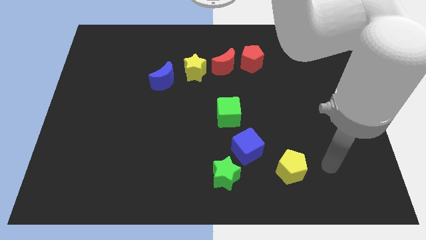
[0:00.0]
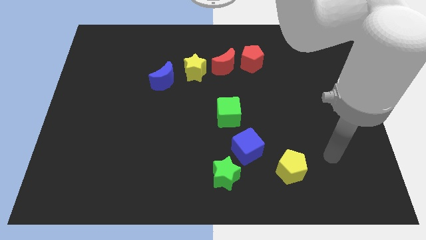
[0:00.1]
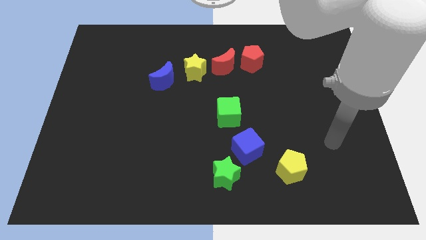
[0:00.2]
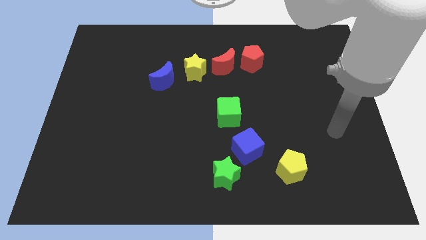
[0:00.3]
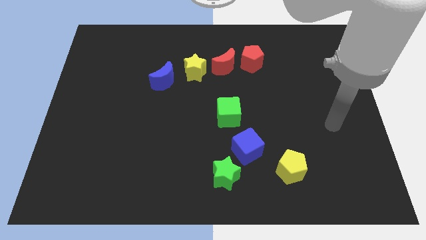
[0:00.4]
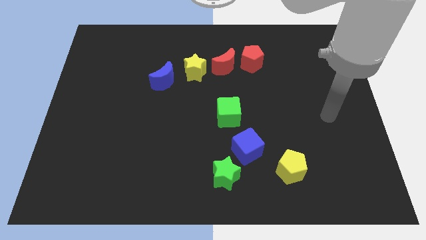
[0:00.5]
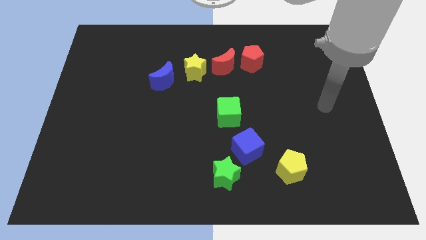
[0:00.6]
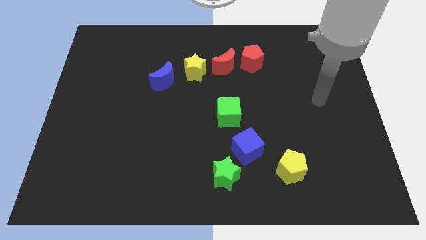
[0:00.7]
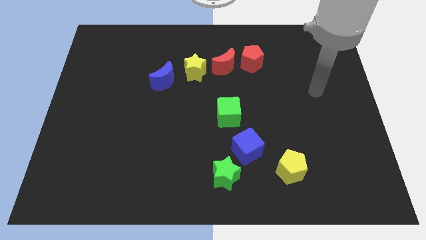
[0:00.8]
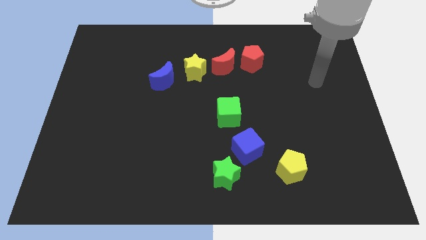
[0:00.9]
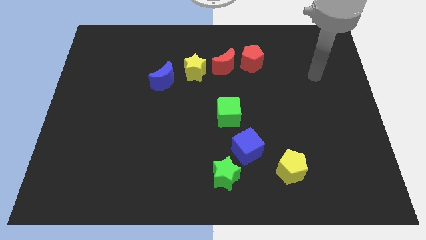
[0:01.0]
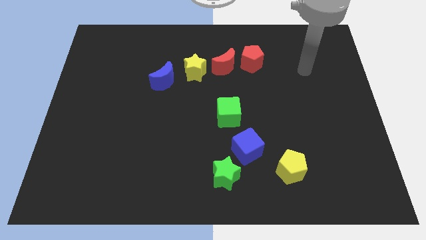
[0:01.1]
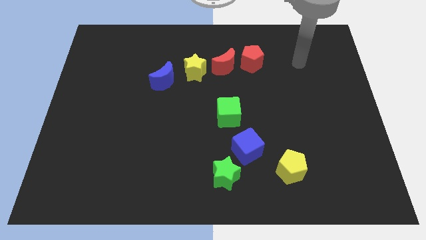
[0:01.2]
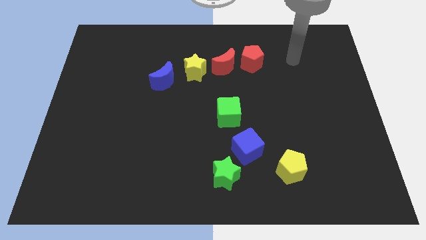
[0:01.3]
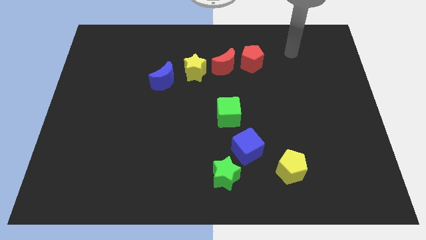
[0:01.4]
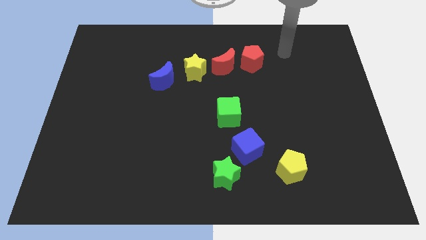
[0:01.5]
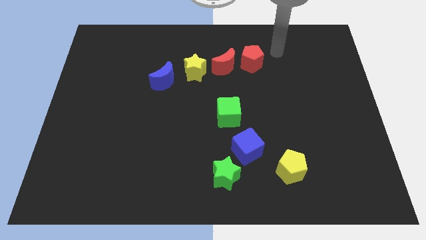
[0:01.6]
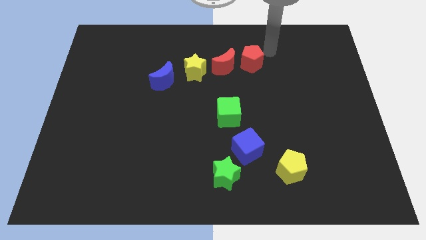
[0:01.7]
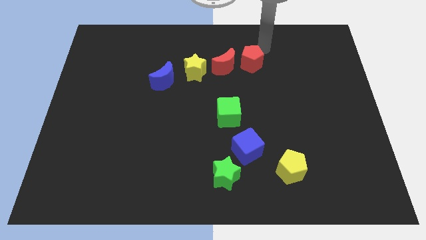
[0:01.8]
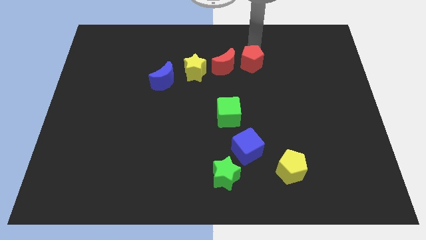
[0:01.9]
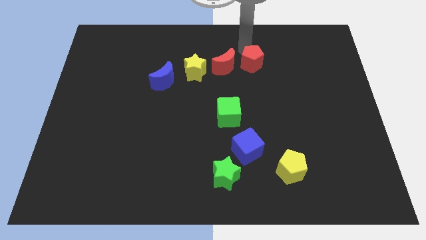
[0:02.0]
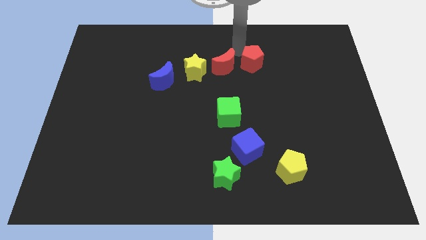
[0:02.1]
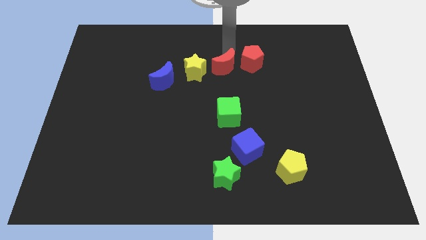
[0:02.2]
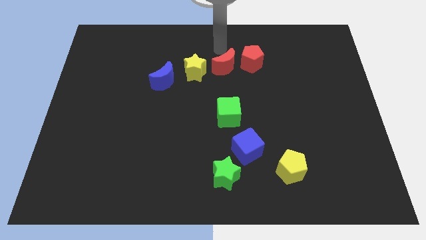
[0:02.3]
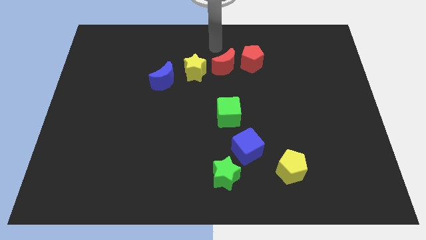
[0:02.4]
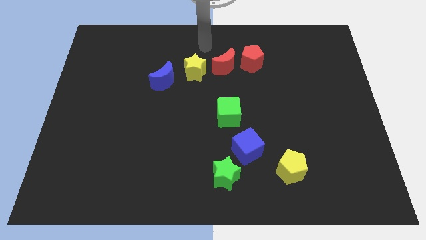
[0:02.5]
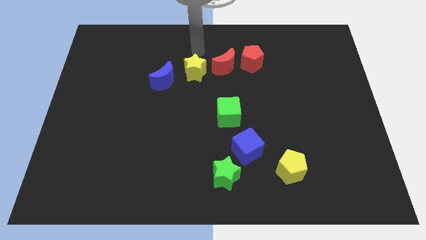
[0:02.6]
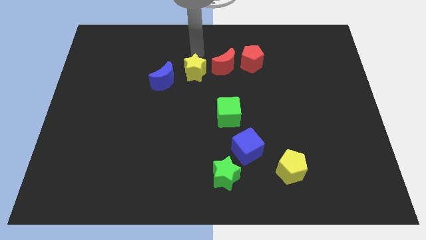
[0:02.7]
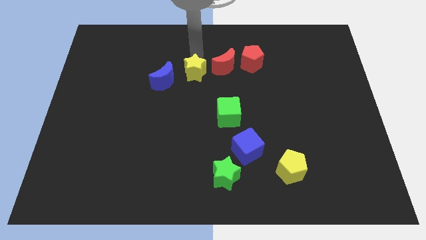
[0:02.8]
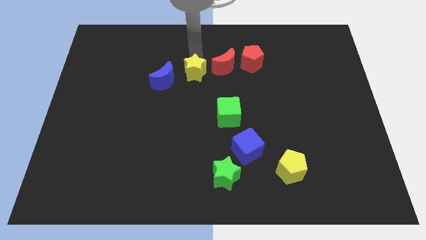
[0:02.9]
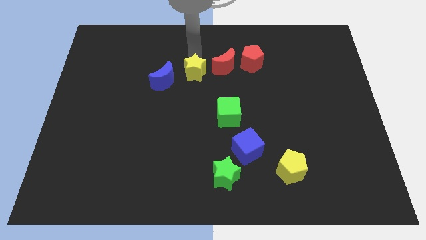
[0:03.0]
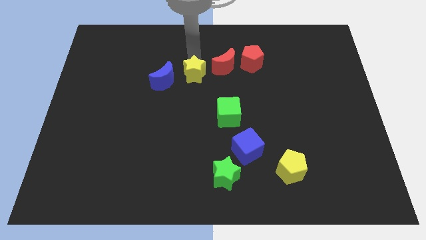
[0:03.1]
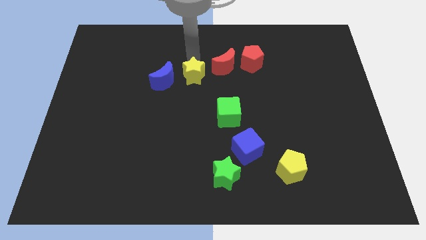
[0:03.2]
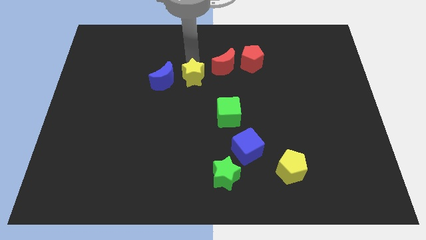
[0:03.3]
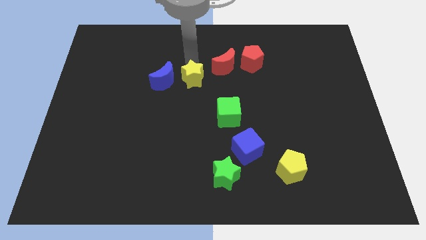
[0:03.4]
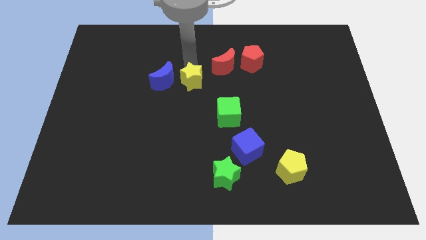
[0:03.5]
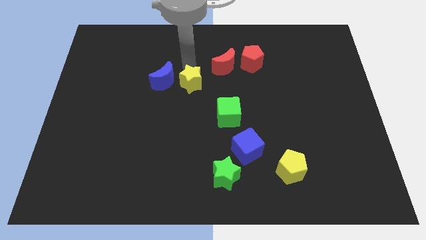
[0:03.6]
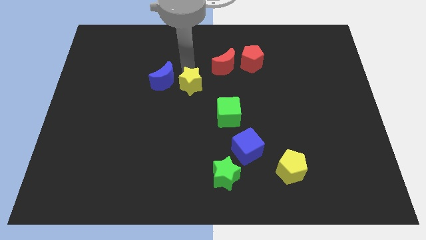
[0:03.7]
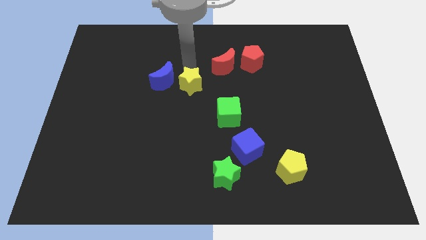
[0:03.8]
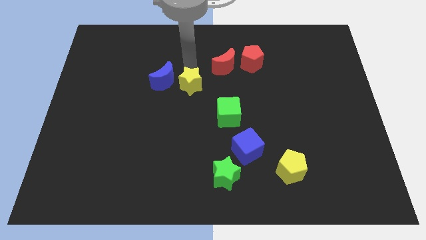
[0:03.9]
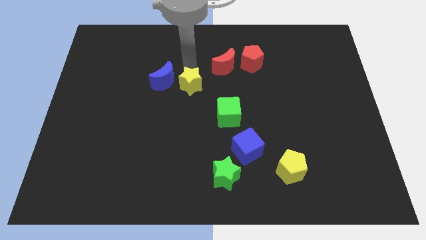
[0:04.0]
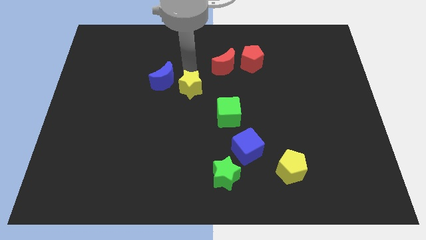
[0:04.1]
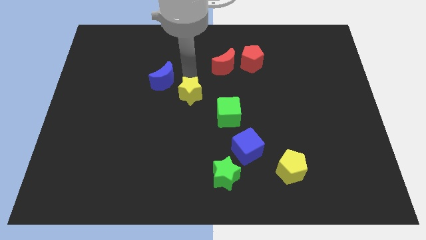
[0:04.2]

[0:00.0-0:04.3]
move the yellow star downwards a little bit

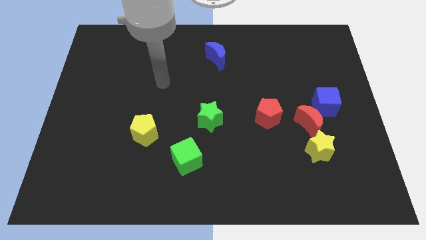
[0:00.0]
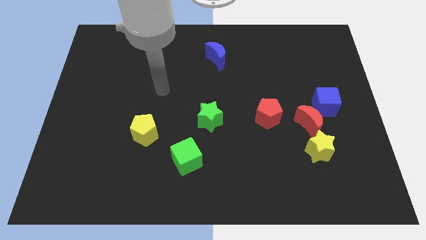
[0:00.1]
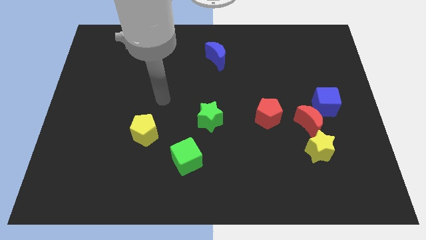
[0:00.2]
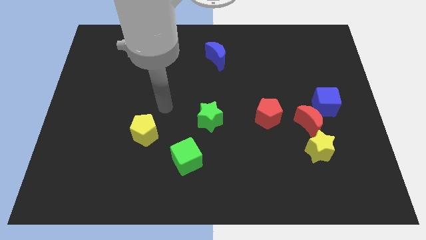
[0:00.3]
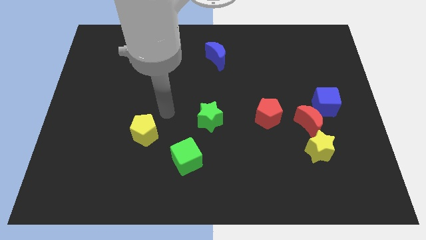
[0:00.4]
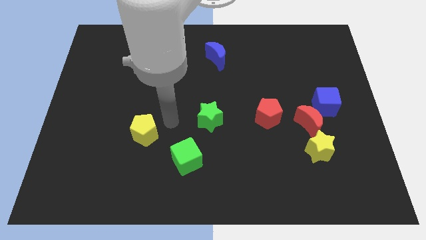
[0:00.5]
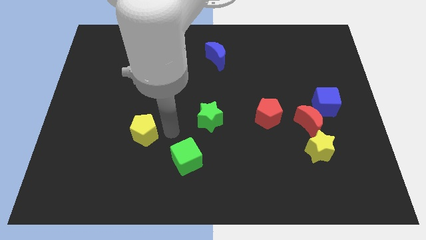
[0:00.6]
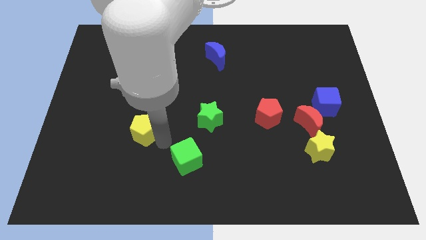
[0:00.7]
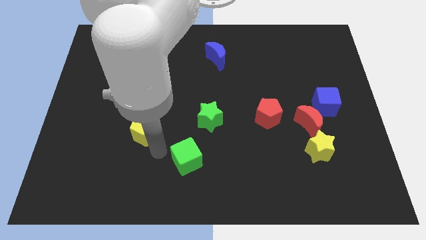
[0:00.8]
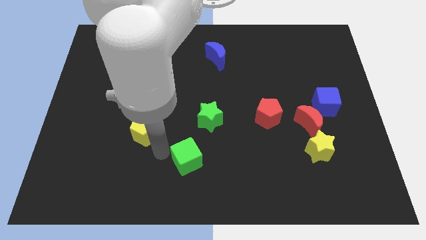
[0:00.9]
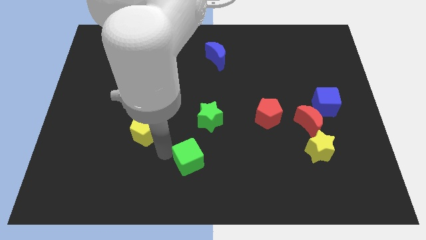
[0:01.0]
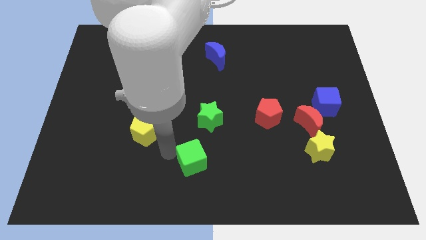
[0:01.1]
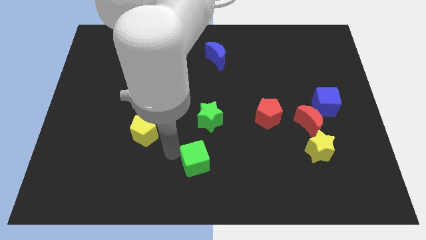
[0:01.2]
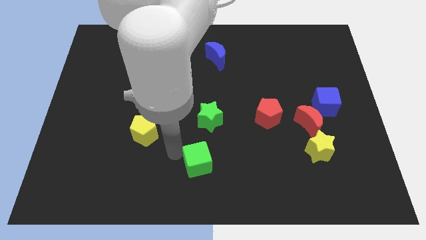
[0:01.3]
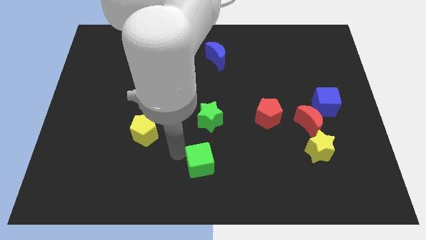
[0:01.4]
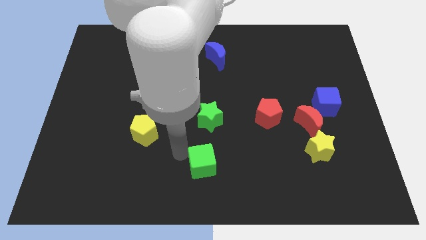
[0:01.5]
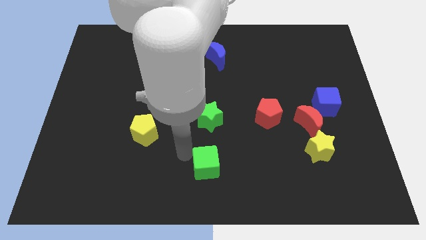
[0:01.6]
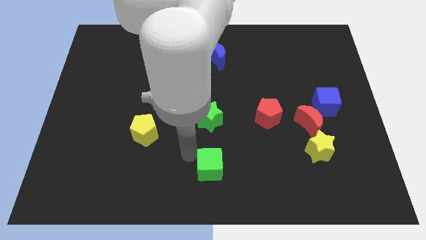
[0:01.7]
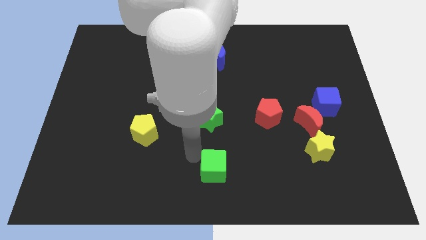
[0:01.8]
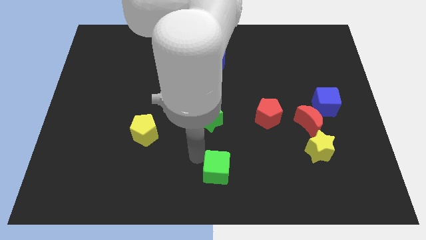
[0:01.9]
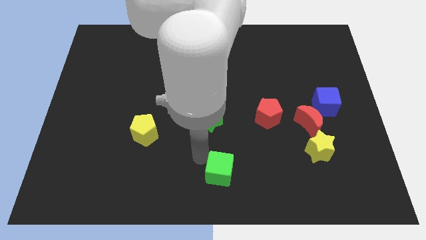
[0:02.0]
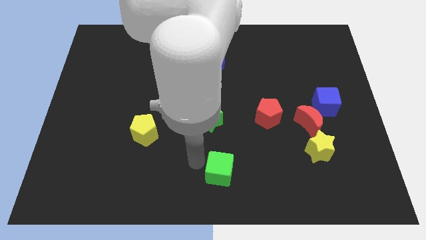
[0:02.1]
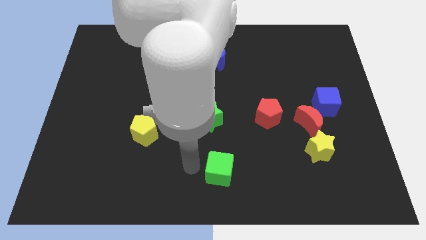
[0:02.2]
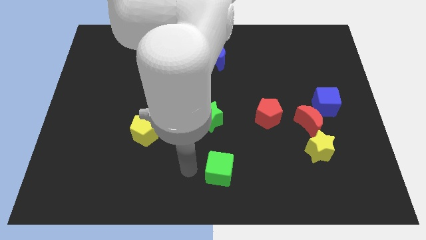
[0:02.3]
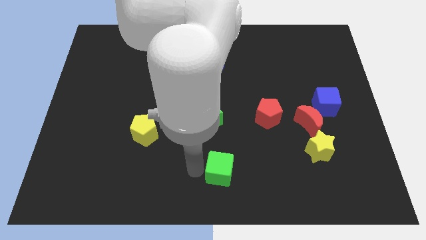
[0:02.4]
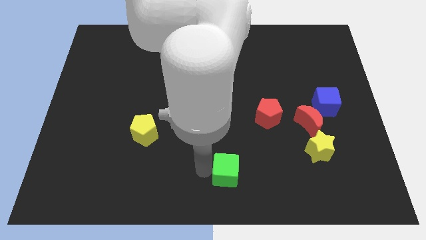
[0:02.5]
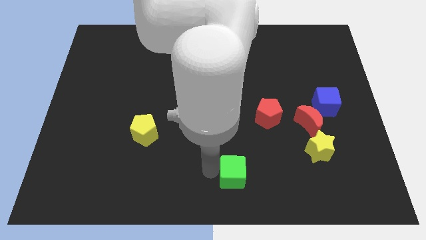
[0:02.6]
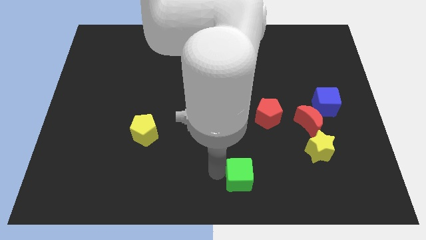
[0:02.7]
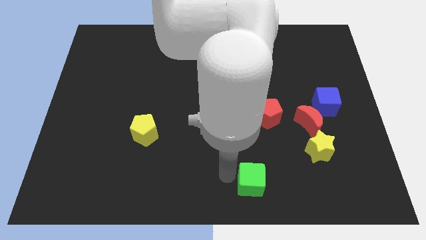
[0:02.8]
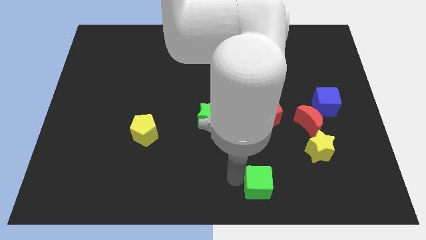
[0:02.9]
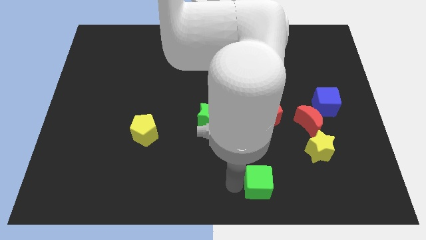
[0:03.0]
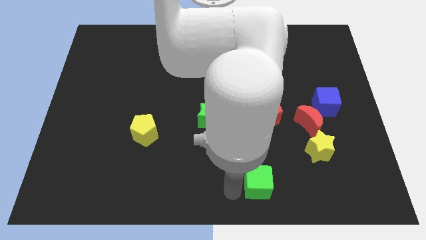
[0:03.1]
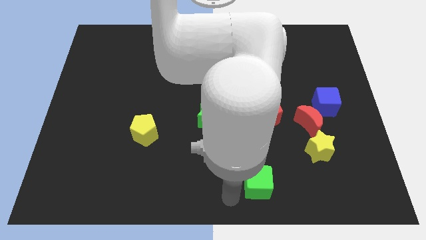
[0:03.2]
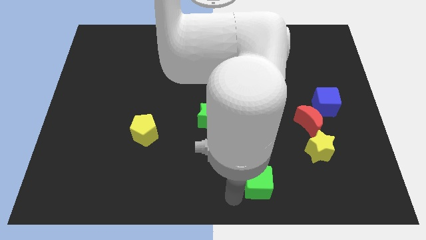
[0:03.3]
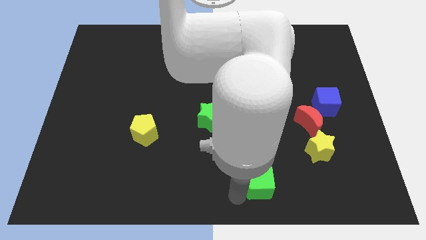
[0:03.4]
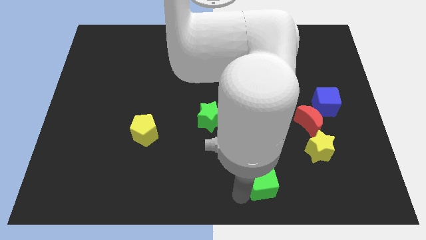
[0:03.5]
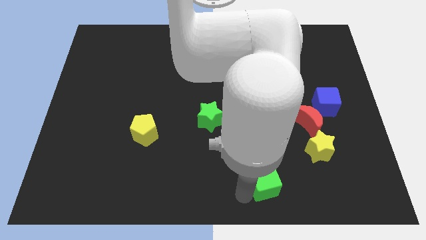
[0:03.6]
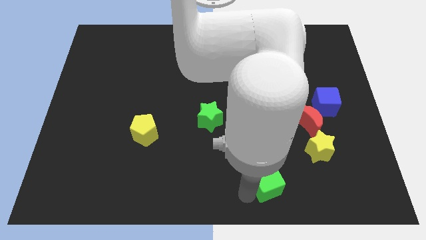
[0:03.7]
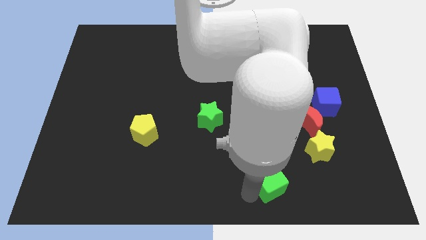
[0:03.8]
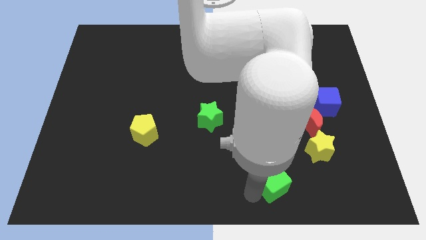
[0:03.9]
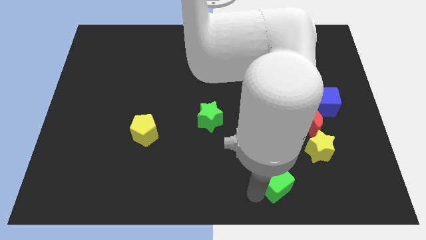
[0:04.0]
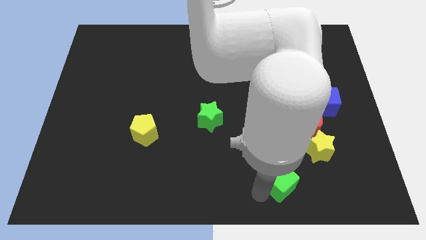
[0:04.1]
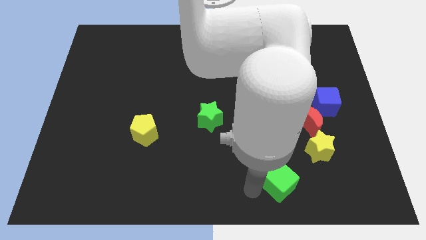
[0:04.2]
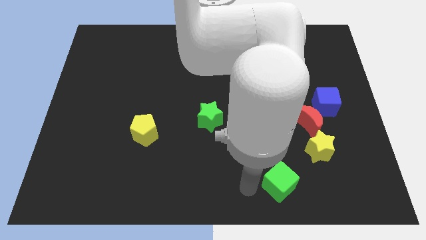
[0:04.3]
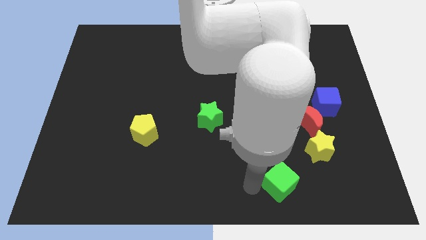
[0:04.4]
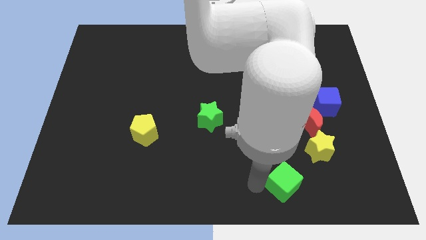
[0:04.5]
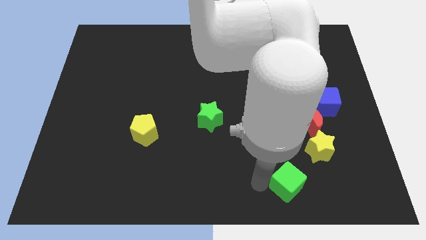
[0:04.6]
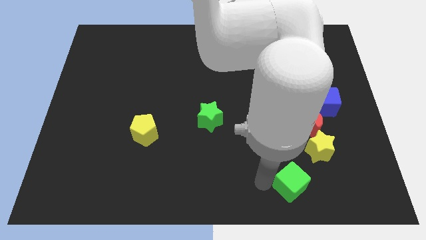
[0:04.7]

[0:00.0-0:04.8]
push the green cube right
